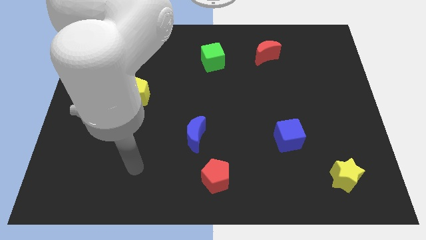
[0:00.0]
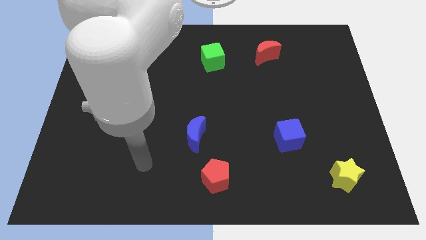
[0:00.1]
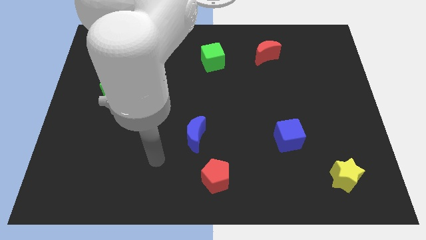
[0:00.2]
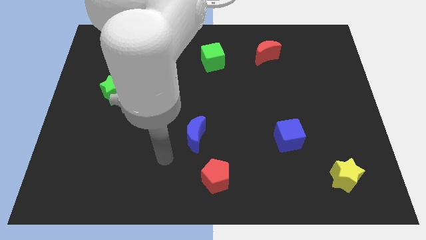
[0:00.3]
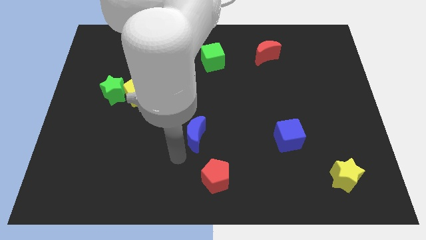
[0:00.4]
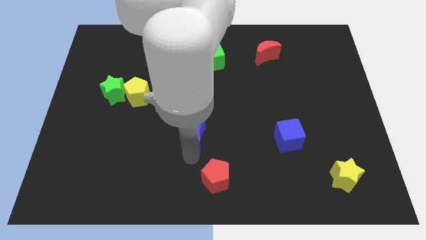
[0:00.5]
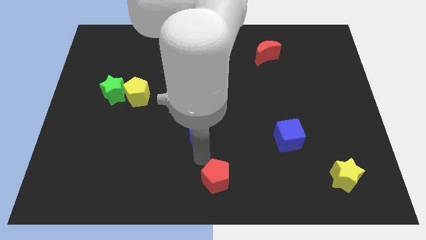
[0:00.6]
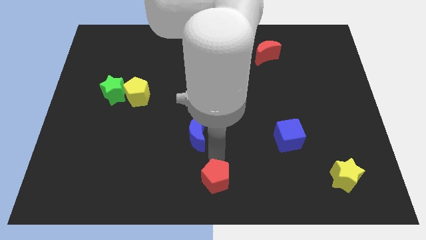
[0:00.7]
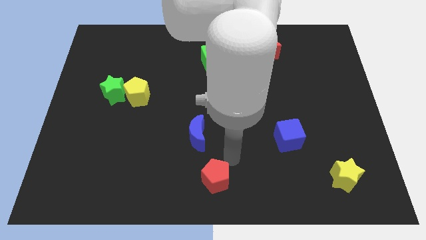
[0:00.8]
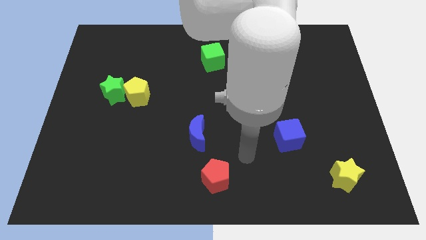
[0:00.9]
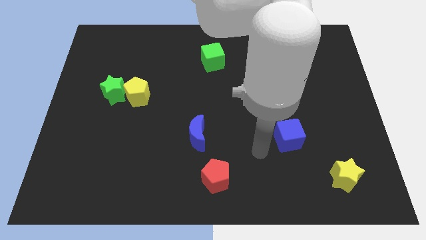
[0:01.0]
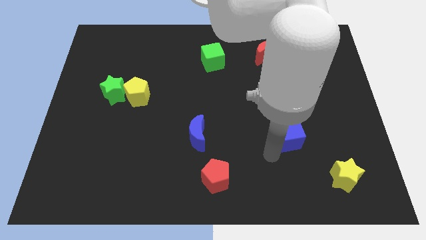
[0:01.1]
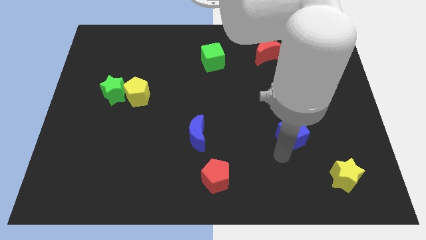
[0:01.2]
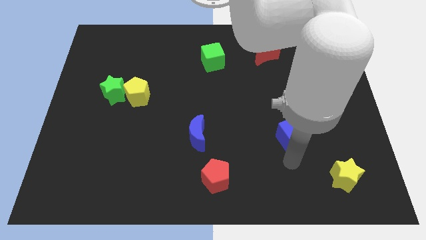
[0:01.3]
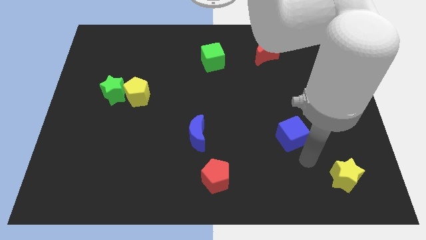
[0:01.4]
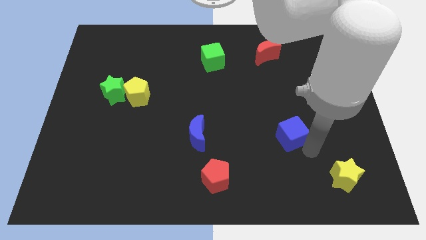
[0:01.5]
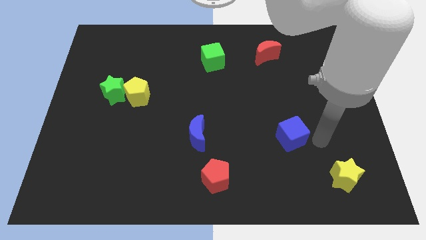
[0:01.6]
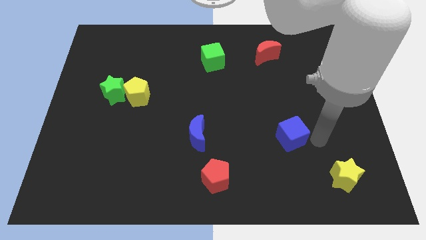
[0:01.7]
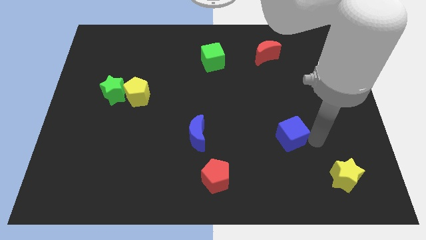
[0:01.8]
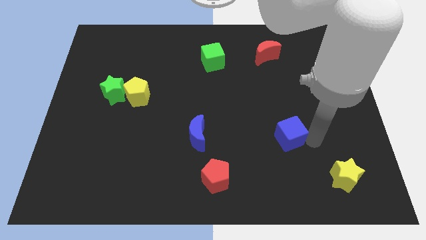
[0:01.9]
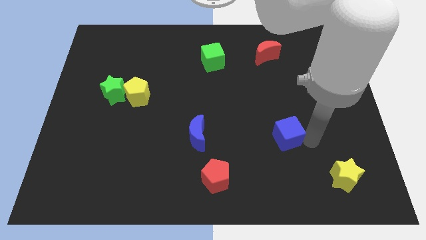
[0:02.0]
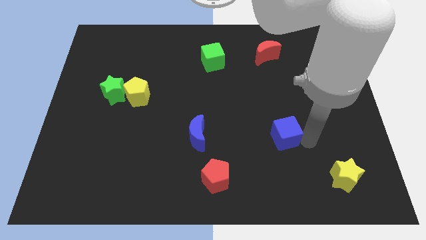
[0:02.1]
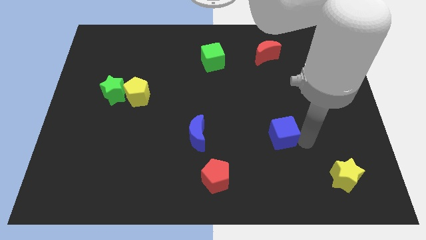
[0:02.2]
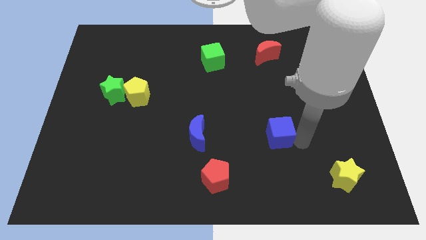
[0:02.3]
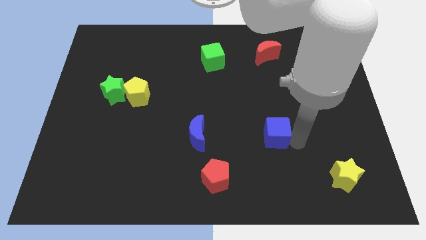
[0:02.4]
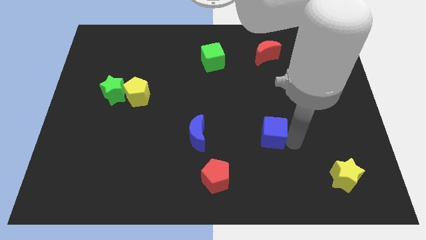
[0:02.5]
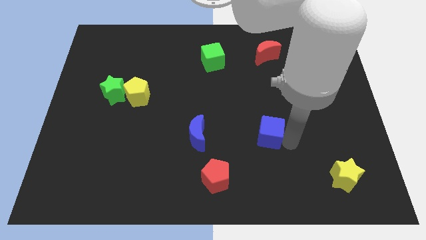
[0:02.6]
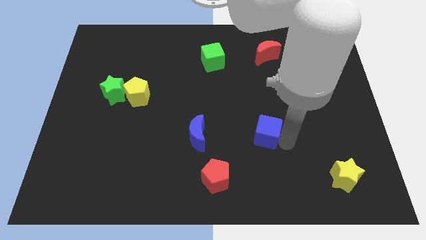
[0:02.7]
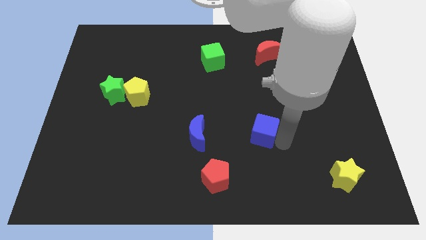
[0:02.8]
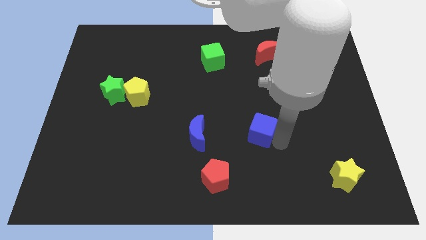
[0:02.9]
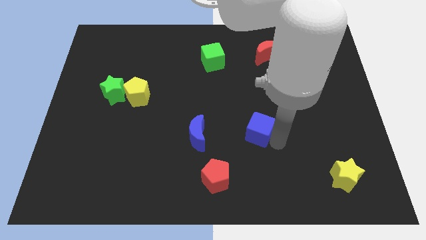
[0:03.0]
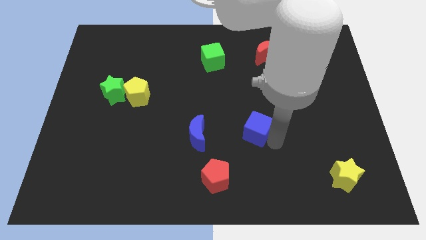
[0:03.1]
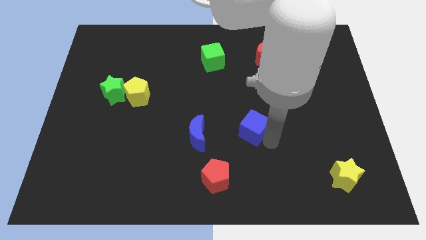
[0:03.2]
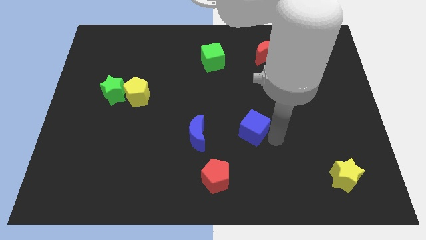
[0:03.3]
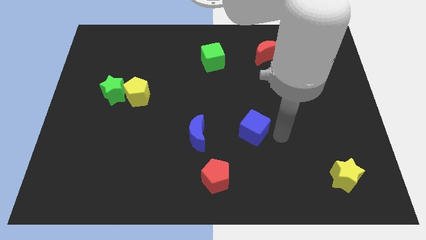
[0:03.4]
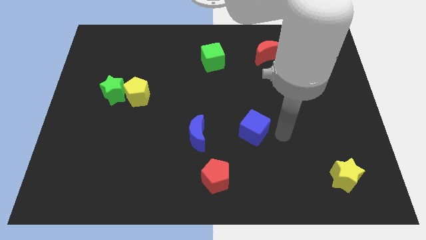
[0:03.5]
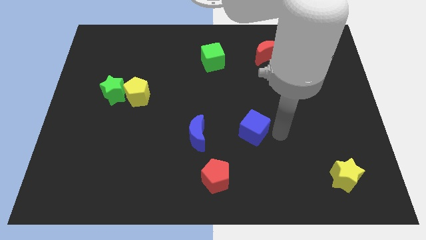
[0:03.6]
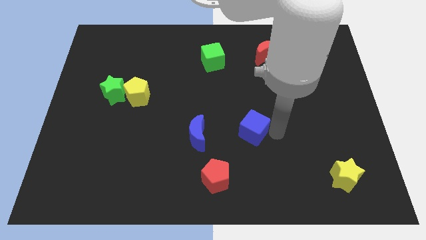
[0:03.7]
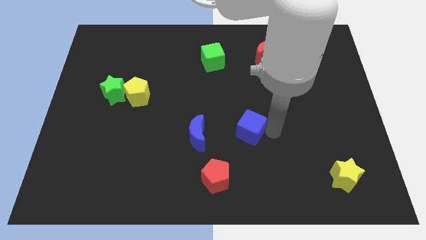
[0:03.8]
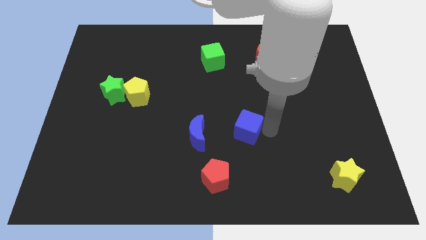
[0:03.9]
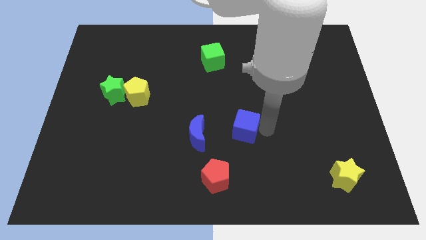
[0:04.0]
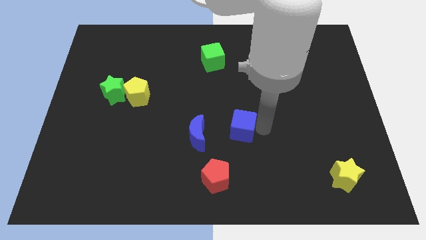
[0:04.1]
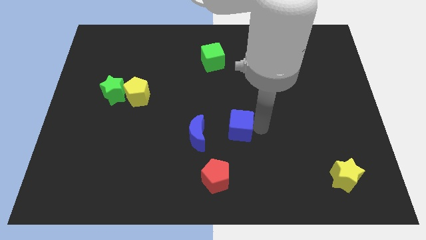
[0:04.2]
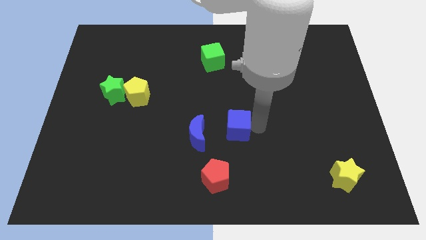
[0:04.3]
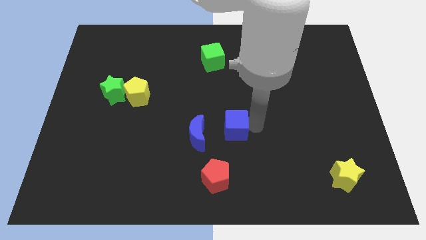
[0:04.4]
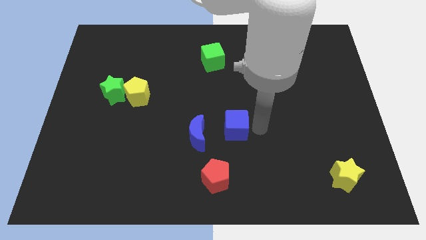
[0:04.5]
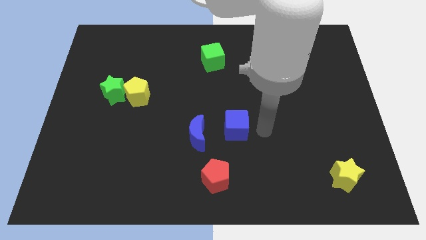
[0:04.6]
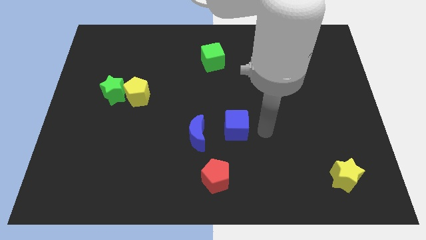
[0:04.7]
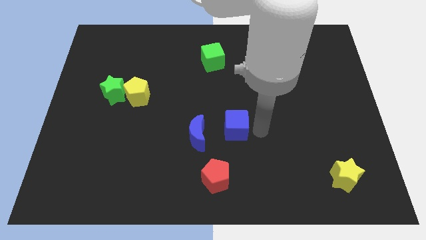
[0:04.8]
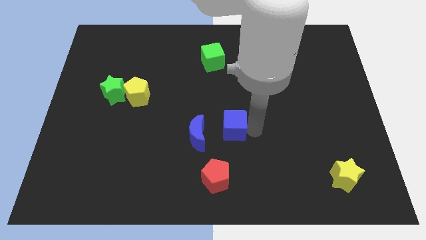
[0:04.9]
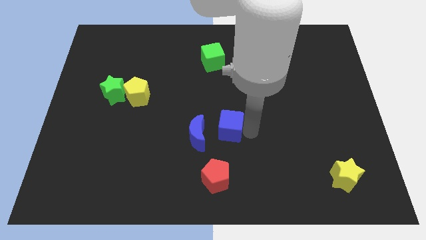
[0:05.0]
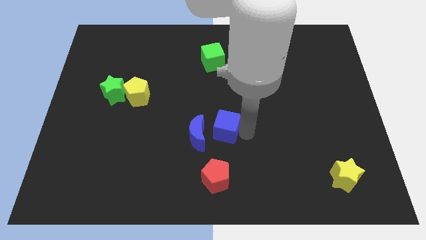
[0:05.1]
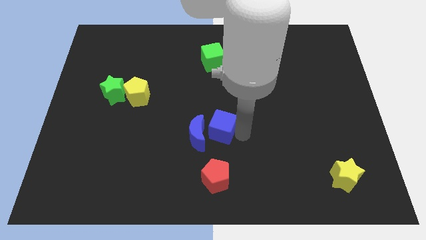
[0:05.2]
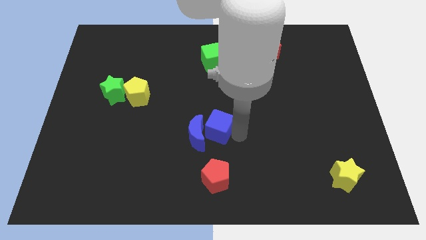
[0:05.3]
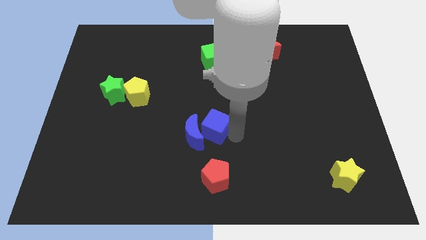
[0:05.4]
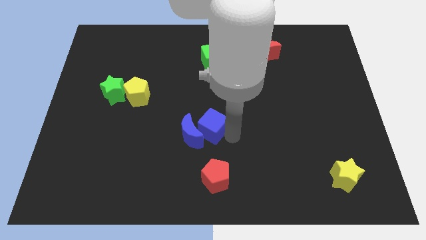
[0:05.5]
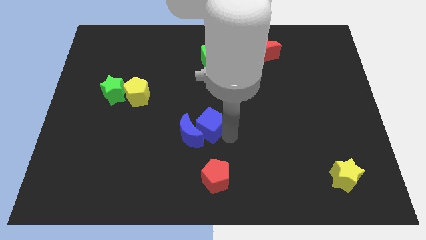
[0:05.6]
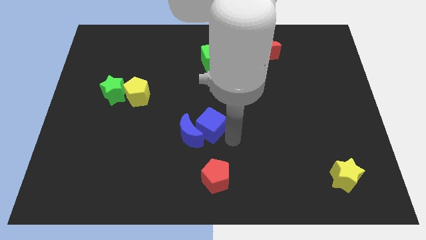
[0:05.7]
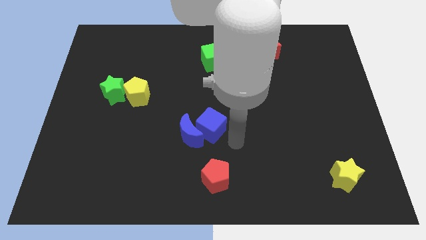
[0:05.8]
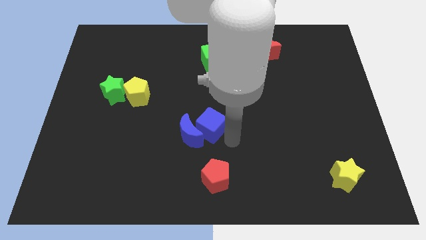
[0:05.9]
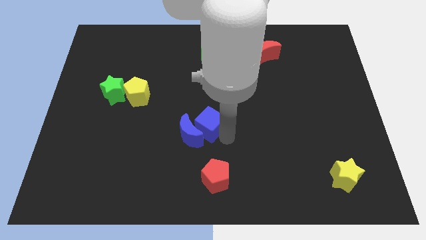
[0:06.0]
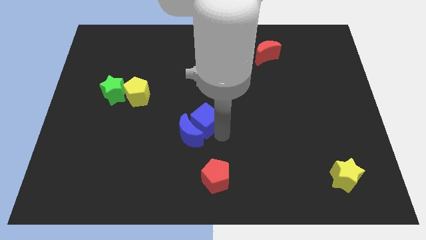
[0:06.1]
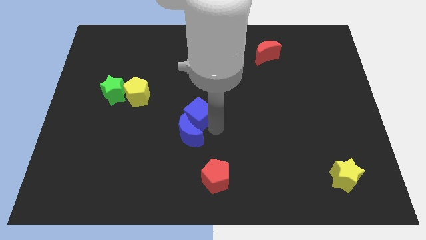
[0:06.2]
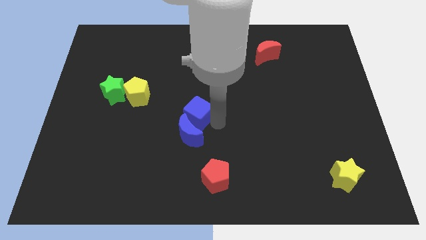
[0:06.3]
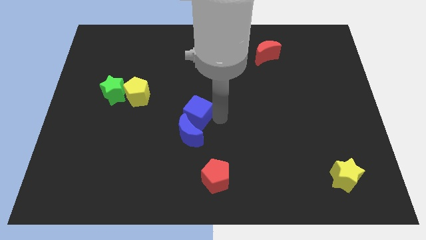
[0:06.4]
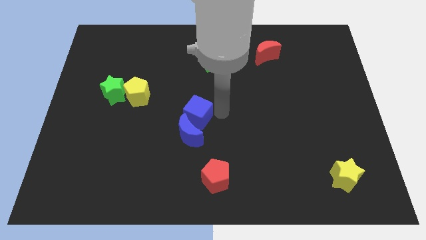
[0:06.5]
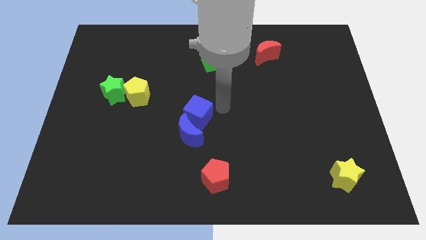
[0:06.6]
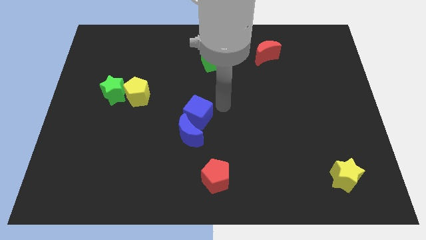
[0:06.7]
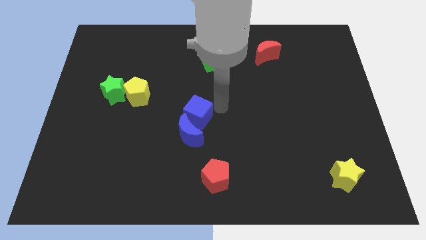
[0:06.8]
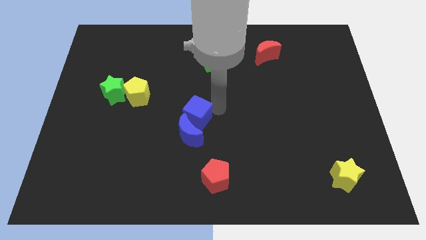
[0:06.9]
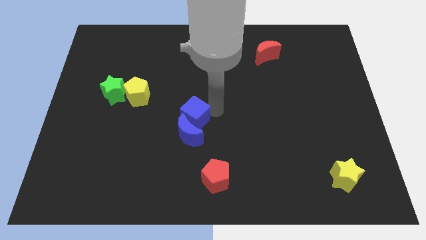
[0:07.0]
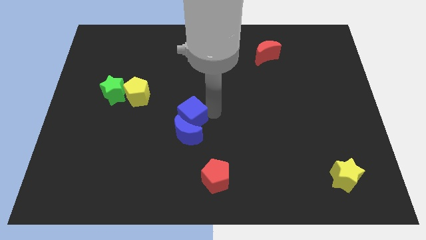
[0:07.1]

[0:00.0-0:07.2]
slide the blue cube left

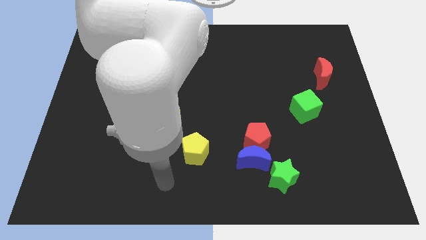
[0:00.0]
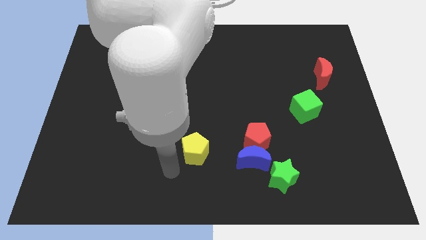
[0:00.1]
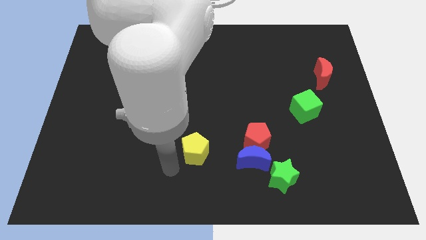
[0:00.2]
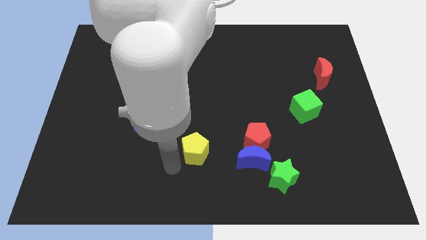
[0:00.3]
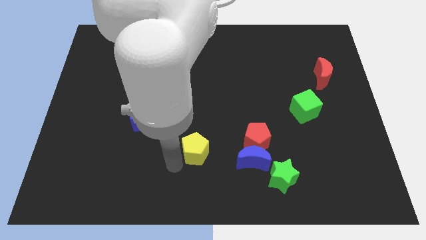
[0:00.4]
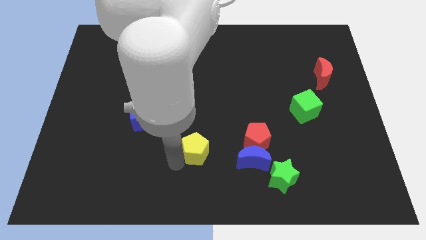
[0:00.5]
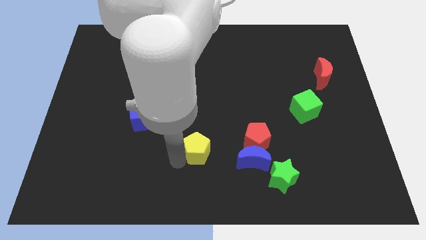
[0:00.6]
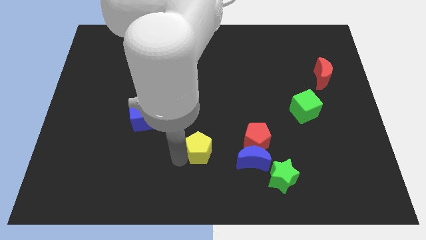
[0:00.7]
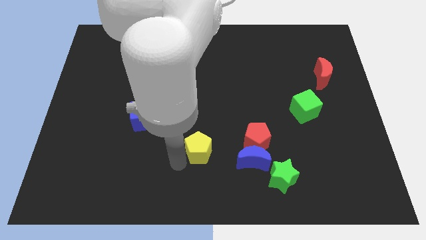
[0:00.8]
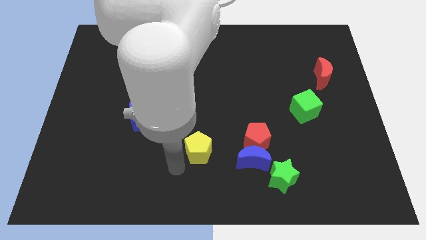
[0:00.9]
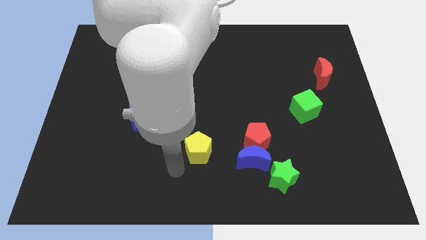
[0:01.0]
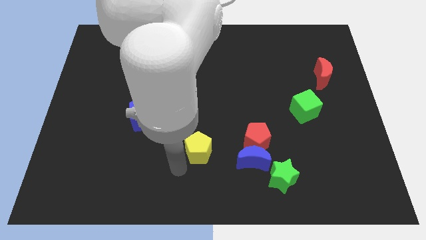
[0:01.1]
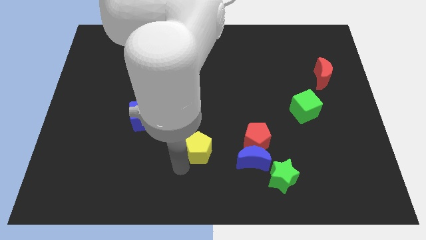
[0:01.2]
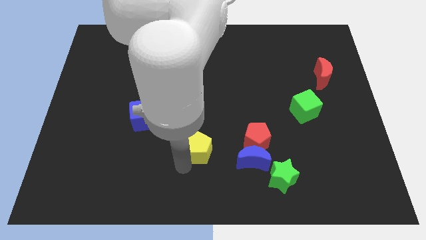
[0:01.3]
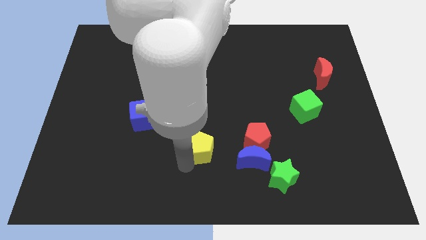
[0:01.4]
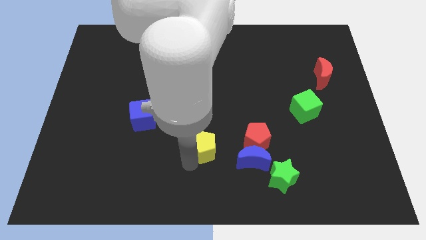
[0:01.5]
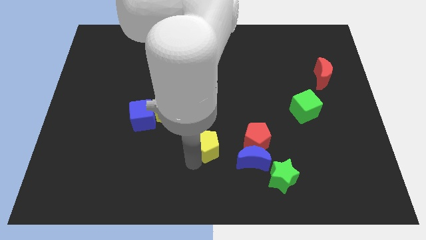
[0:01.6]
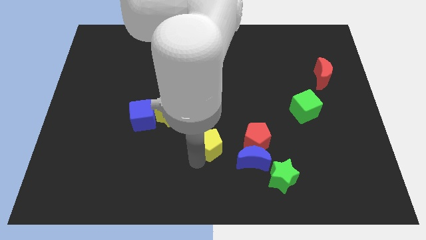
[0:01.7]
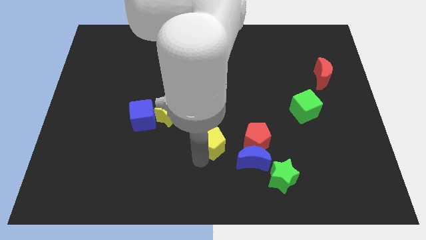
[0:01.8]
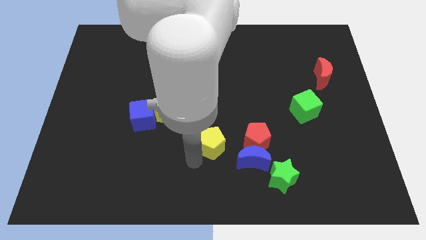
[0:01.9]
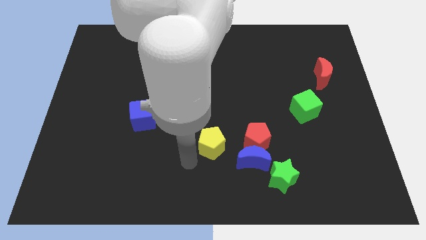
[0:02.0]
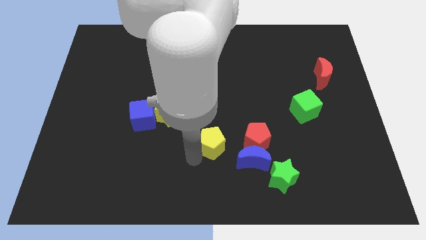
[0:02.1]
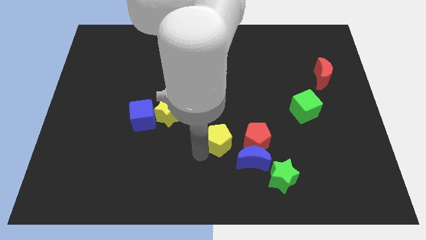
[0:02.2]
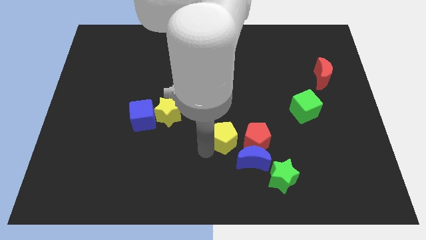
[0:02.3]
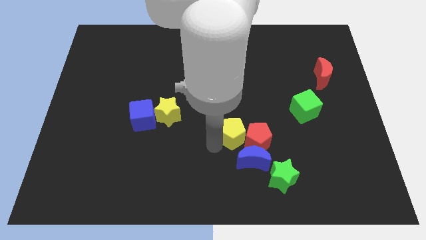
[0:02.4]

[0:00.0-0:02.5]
slightly slide the yellow pentagon to the right
